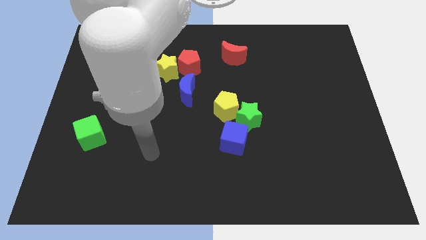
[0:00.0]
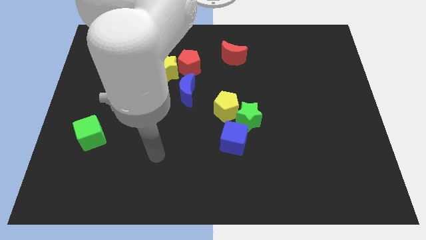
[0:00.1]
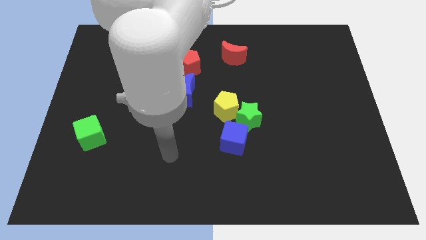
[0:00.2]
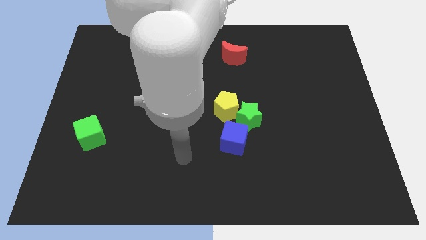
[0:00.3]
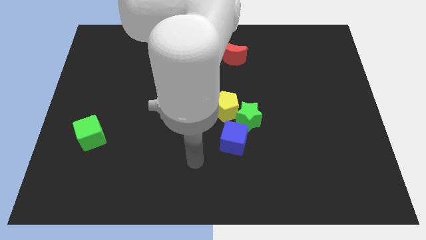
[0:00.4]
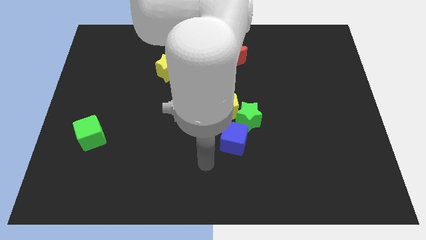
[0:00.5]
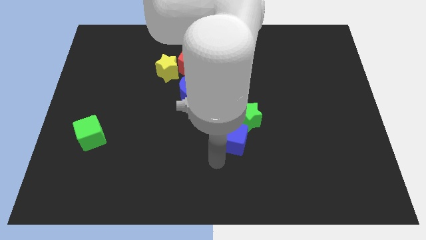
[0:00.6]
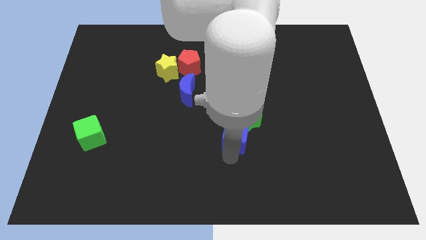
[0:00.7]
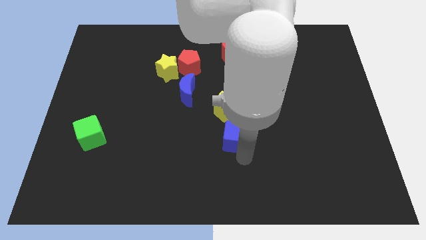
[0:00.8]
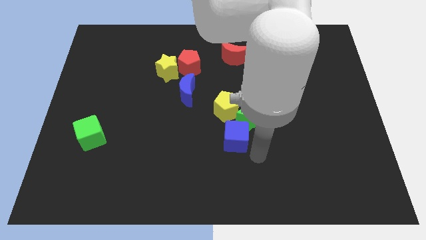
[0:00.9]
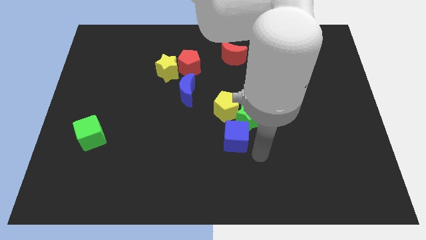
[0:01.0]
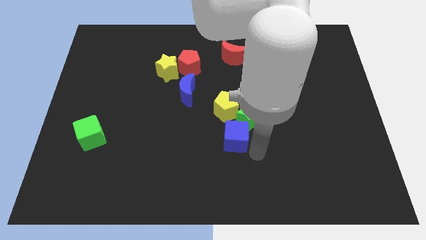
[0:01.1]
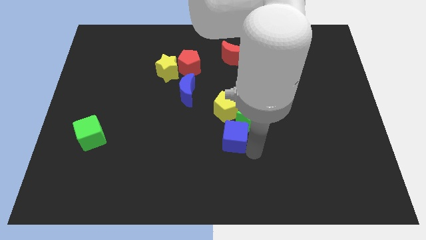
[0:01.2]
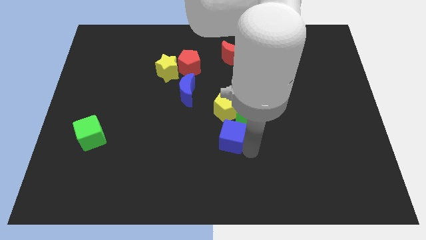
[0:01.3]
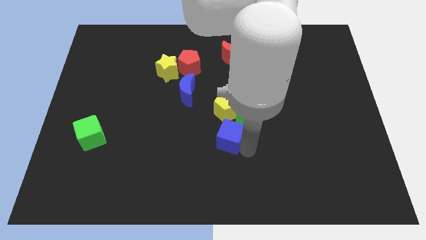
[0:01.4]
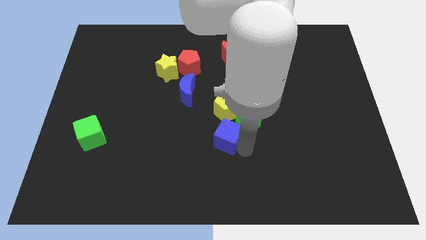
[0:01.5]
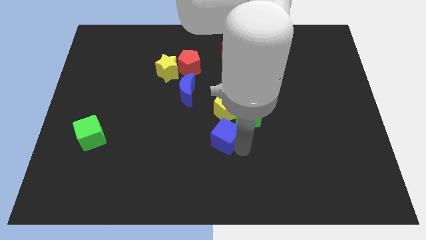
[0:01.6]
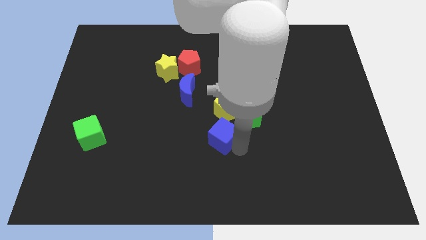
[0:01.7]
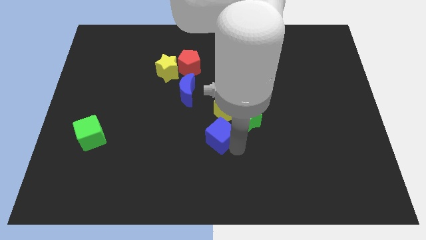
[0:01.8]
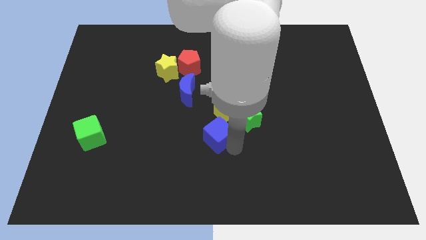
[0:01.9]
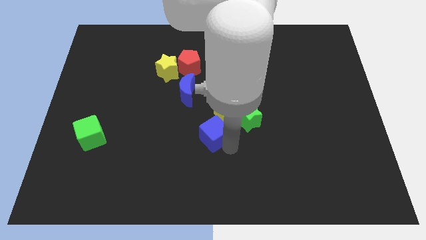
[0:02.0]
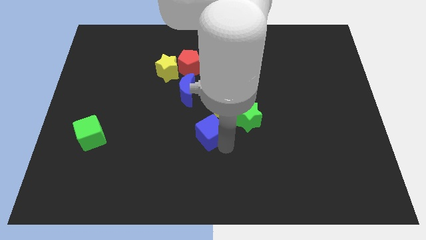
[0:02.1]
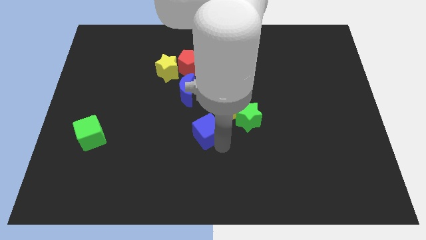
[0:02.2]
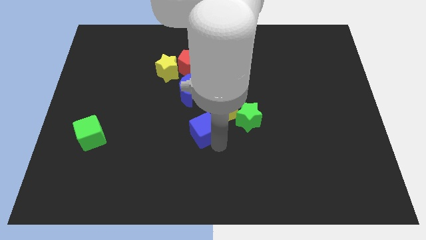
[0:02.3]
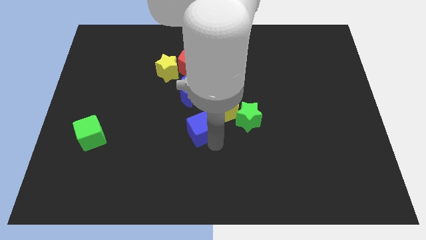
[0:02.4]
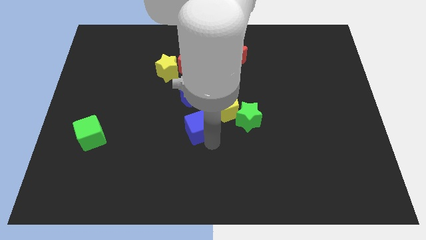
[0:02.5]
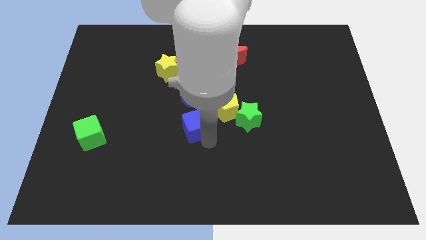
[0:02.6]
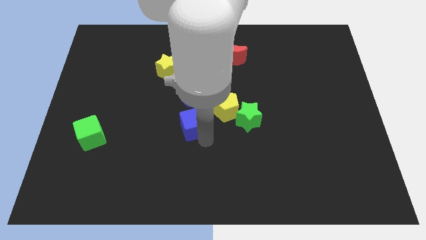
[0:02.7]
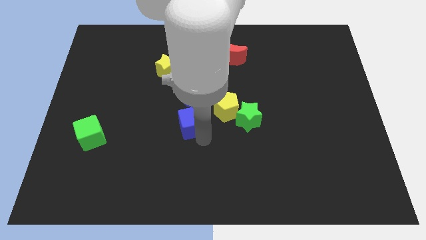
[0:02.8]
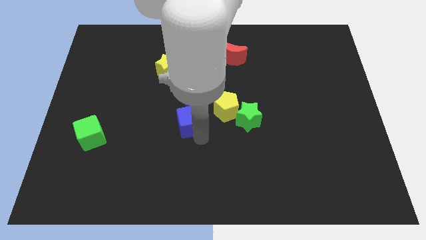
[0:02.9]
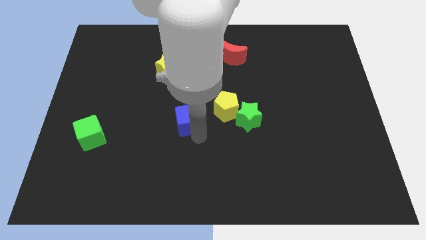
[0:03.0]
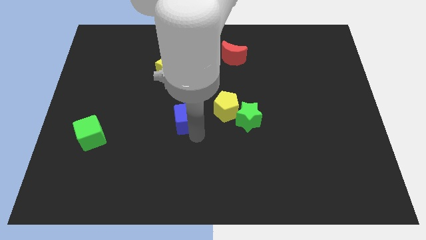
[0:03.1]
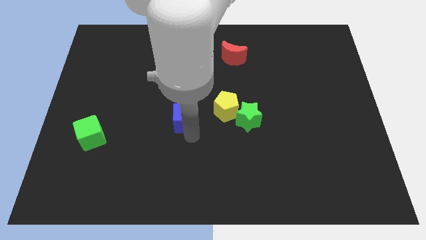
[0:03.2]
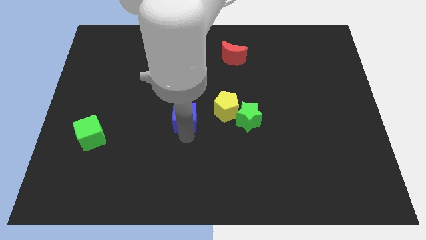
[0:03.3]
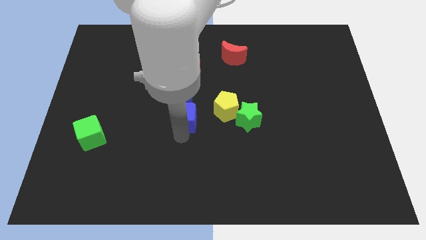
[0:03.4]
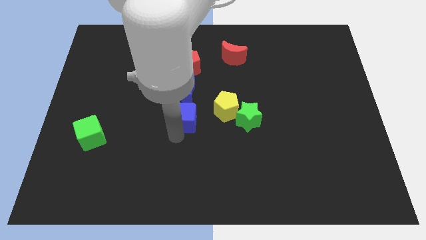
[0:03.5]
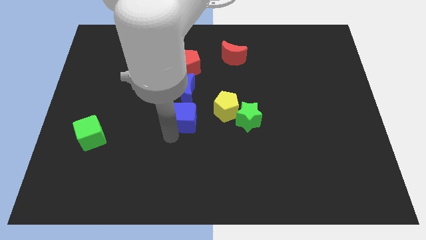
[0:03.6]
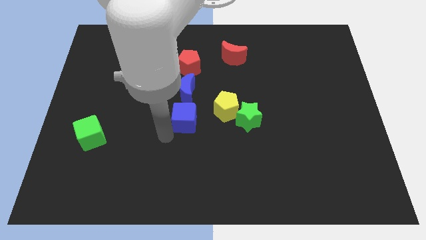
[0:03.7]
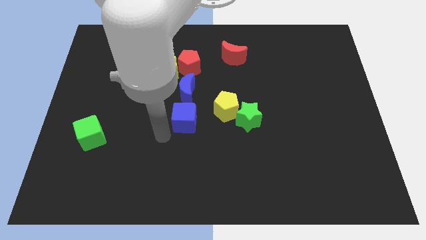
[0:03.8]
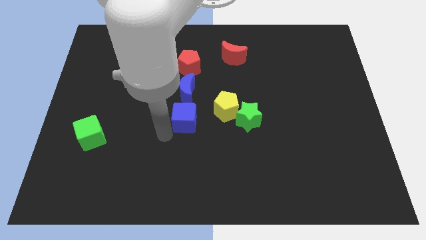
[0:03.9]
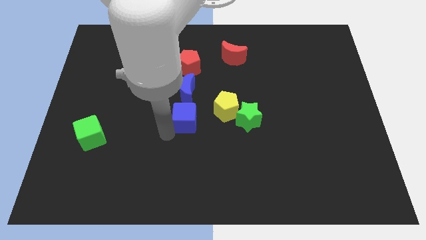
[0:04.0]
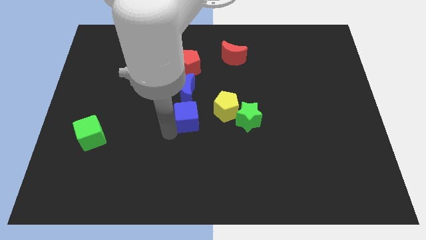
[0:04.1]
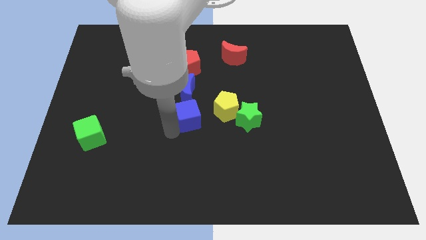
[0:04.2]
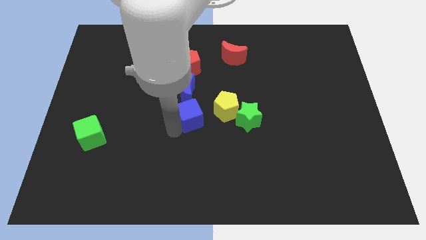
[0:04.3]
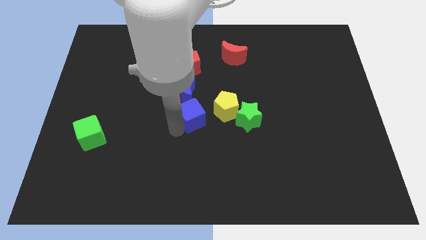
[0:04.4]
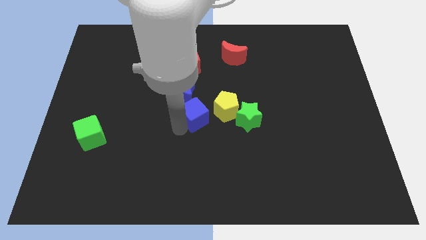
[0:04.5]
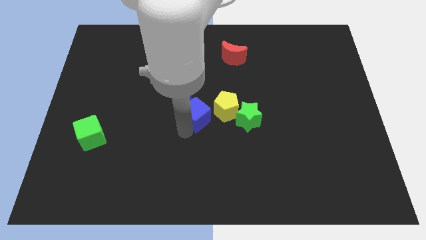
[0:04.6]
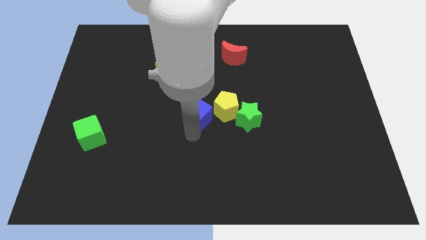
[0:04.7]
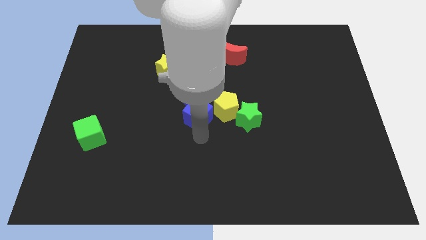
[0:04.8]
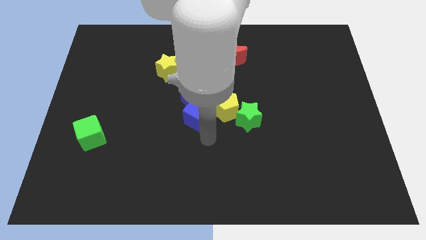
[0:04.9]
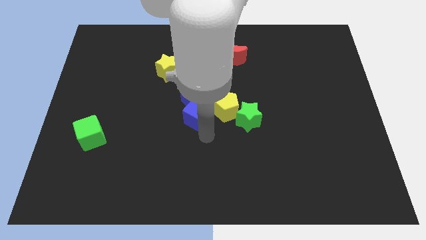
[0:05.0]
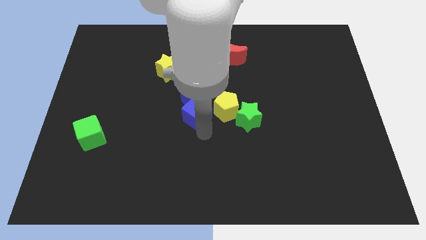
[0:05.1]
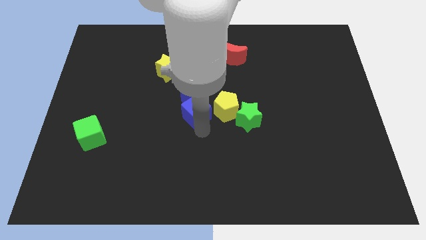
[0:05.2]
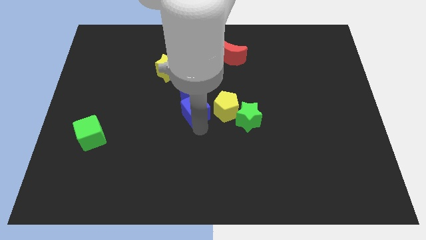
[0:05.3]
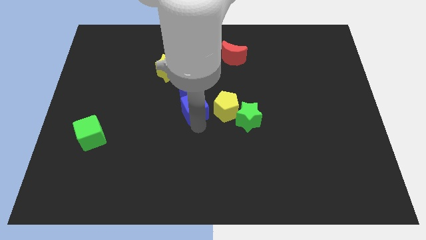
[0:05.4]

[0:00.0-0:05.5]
put the blue cube to the blue moon

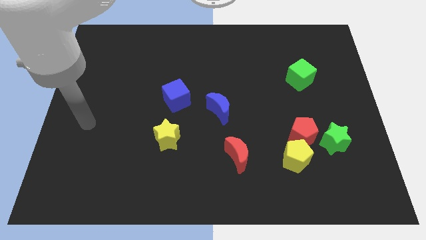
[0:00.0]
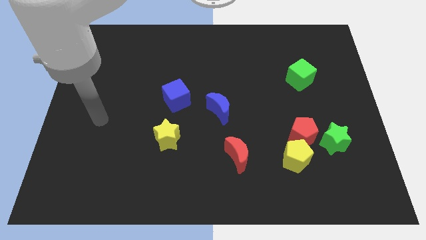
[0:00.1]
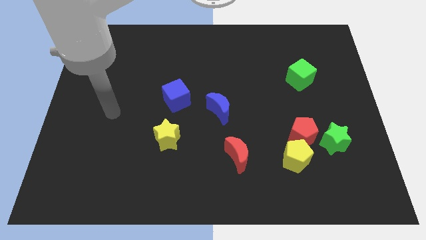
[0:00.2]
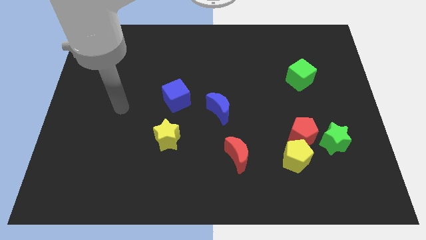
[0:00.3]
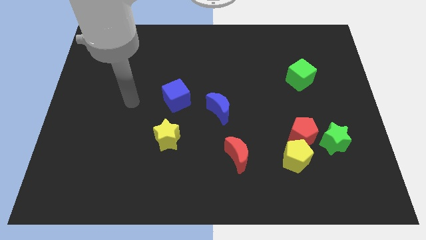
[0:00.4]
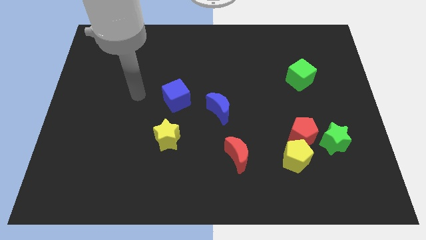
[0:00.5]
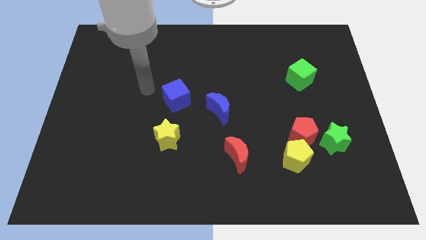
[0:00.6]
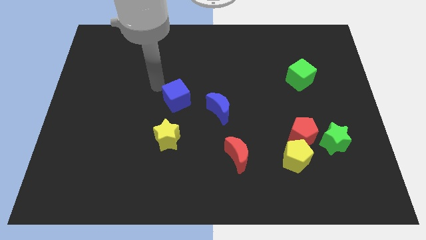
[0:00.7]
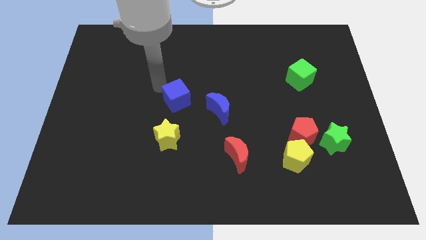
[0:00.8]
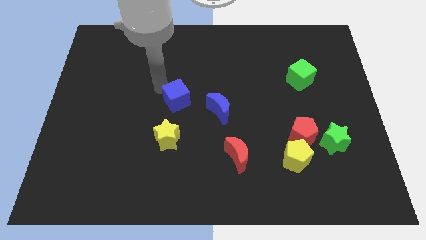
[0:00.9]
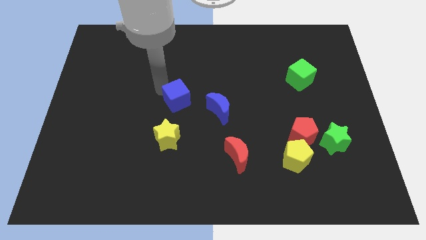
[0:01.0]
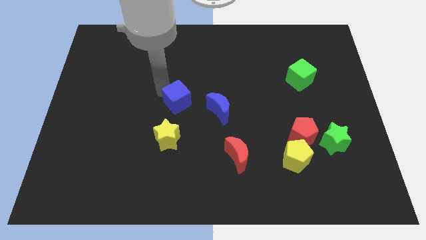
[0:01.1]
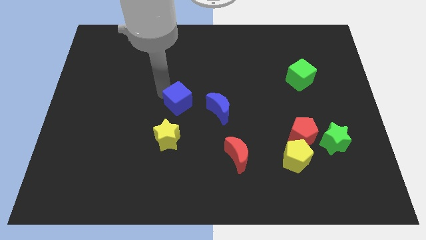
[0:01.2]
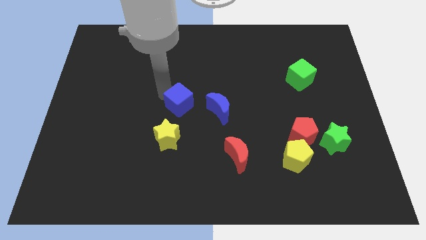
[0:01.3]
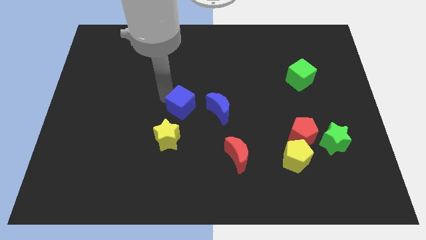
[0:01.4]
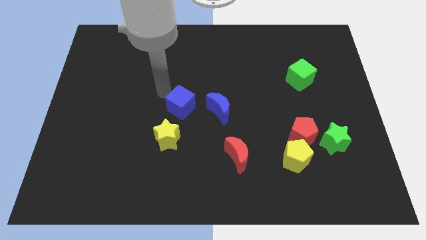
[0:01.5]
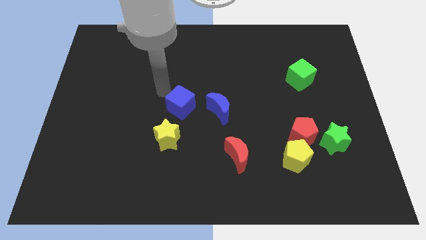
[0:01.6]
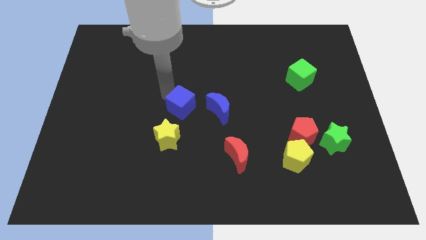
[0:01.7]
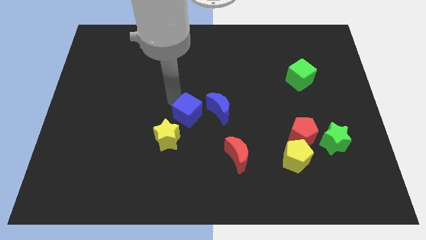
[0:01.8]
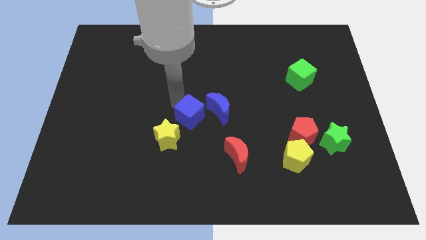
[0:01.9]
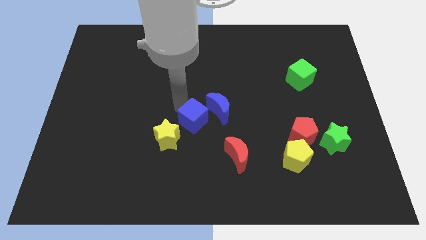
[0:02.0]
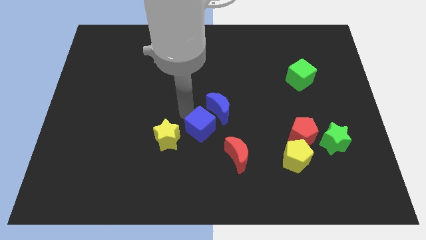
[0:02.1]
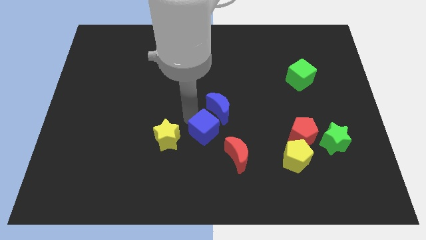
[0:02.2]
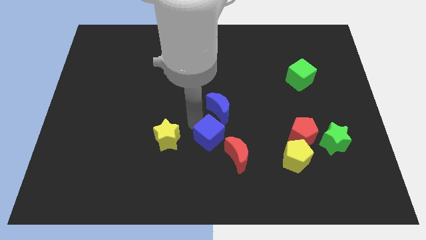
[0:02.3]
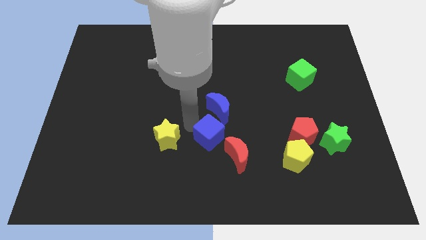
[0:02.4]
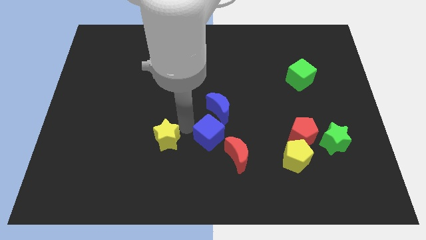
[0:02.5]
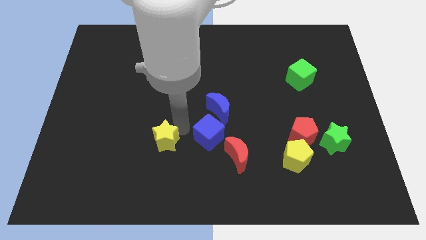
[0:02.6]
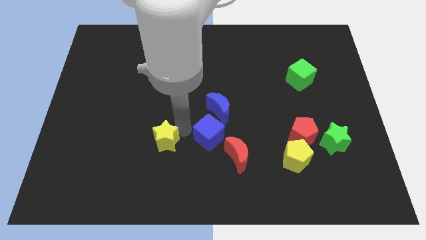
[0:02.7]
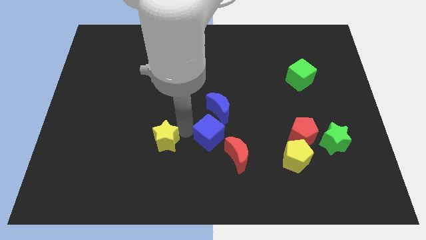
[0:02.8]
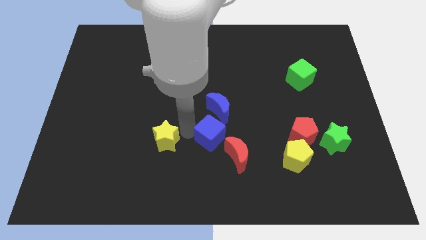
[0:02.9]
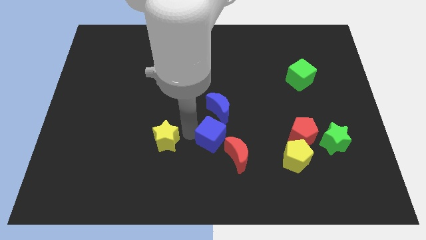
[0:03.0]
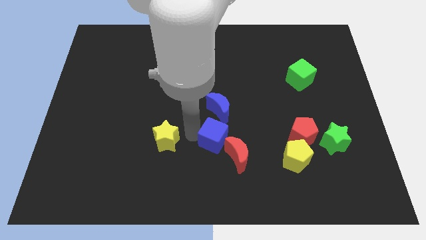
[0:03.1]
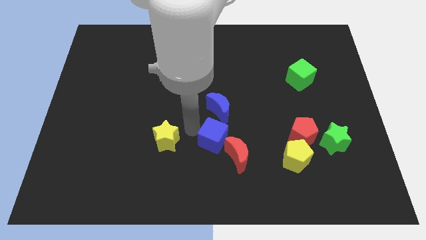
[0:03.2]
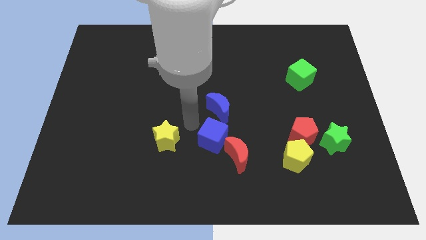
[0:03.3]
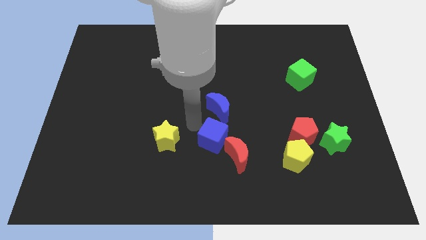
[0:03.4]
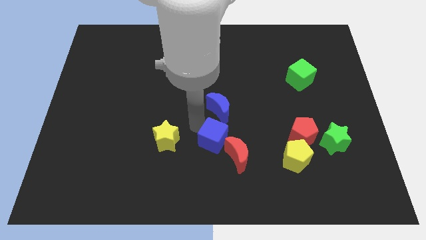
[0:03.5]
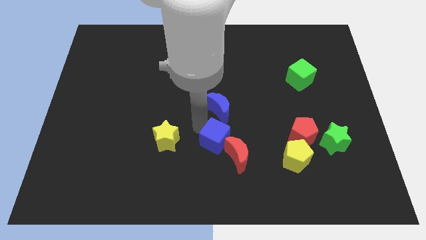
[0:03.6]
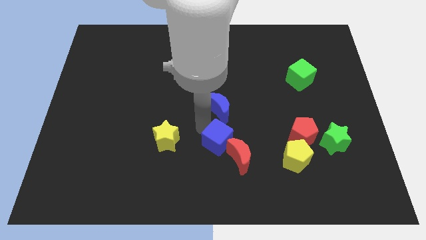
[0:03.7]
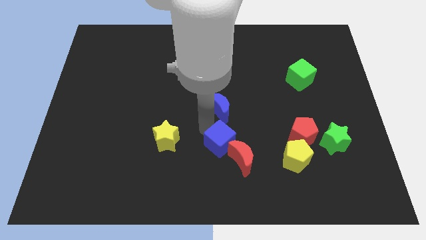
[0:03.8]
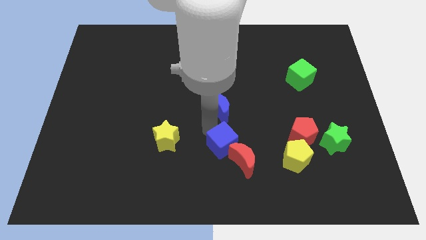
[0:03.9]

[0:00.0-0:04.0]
put the blue cube to the red moon
